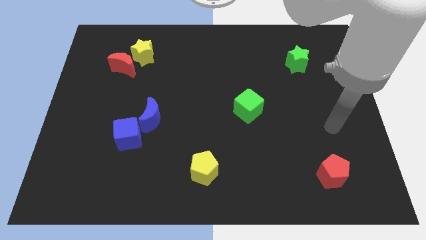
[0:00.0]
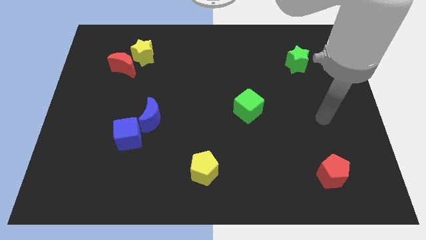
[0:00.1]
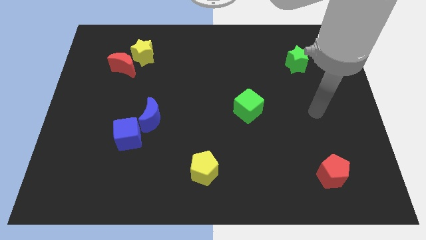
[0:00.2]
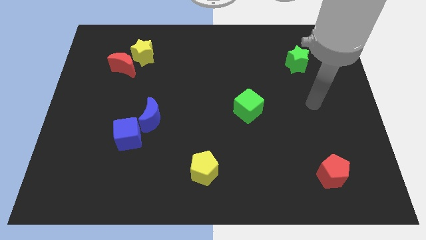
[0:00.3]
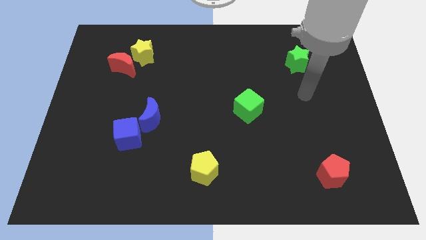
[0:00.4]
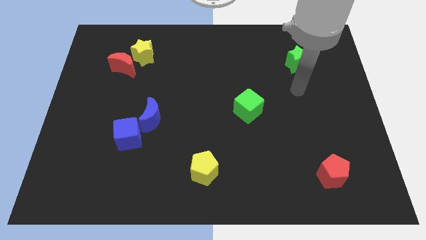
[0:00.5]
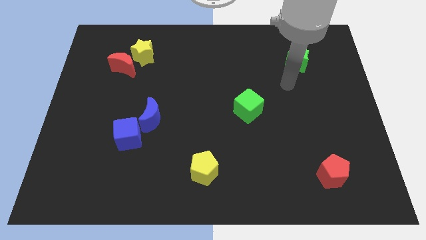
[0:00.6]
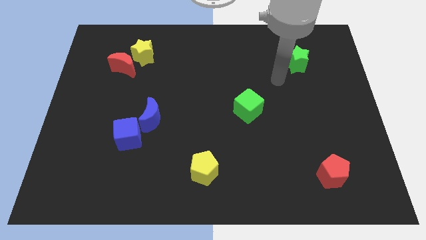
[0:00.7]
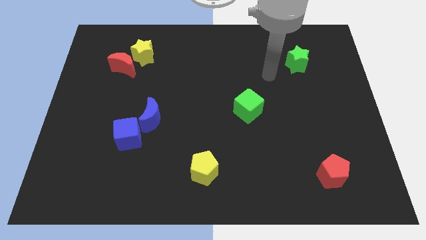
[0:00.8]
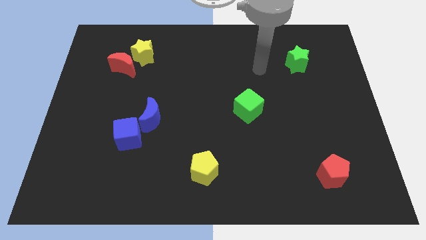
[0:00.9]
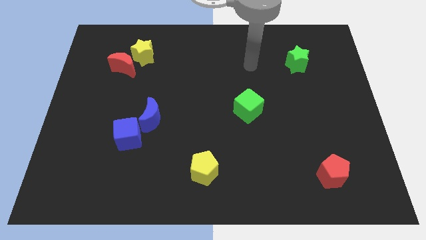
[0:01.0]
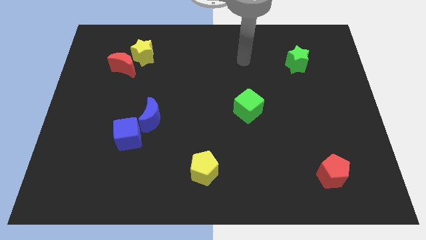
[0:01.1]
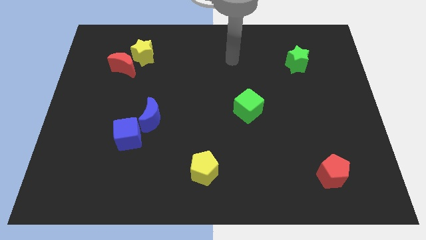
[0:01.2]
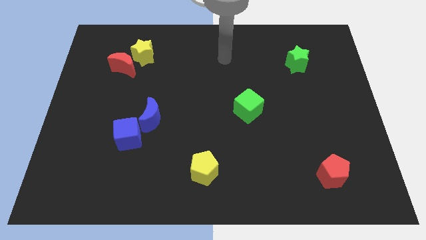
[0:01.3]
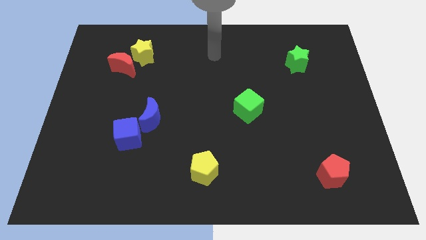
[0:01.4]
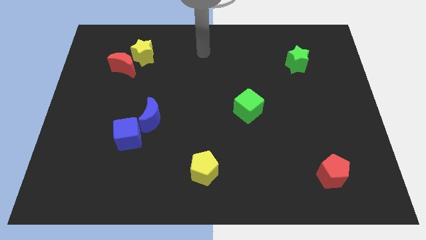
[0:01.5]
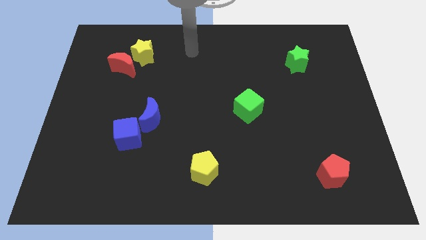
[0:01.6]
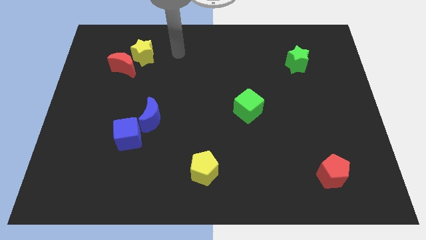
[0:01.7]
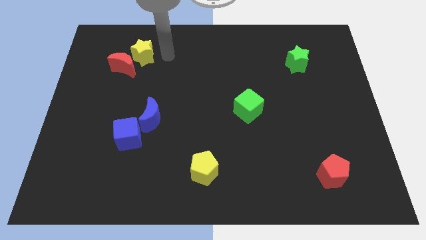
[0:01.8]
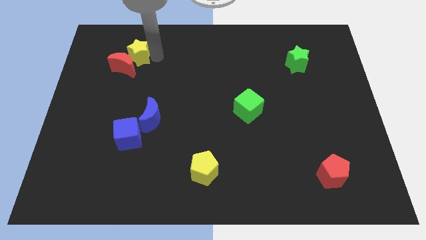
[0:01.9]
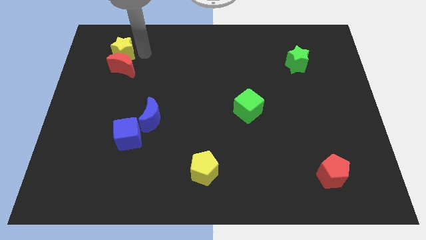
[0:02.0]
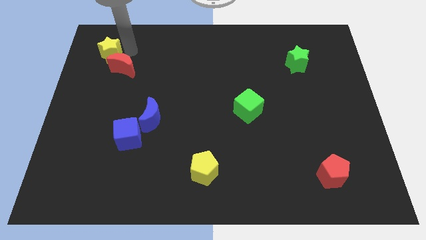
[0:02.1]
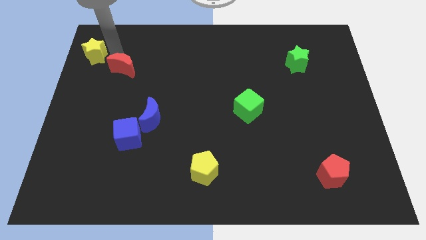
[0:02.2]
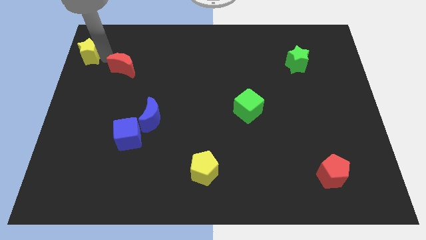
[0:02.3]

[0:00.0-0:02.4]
move the red moon away from the yellow star

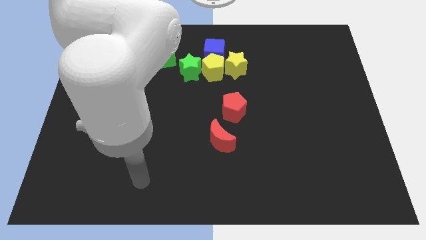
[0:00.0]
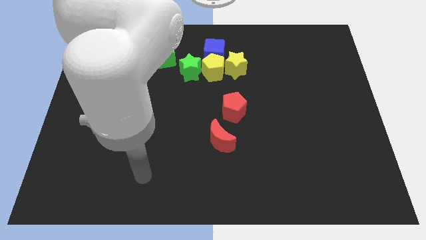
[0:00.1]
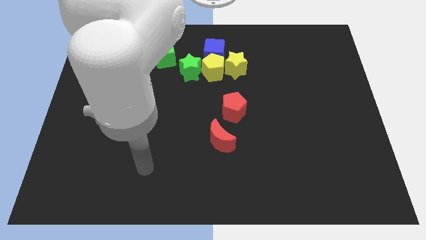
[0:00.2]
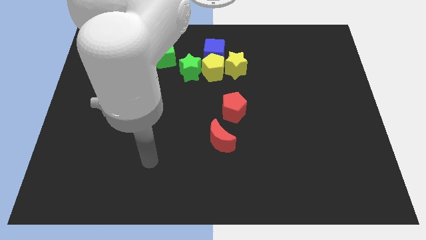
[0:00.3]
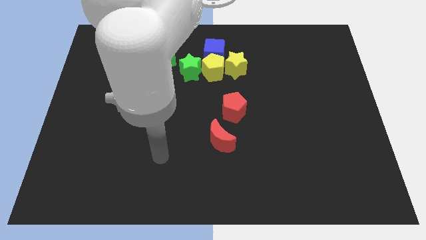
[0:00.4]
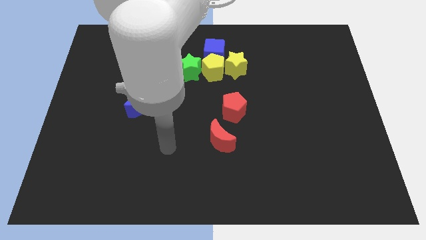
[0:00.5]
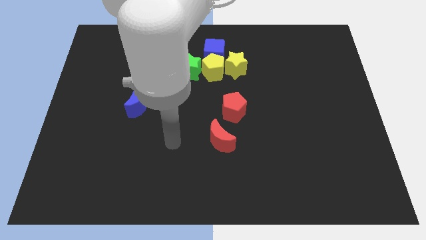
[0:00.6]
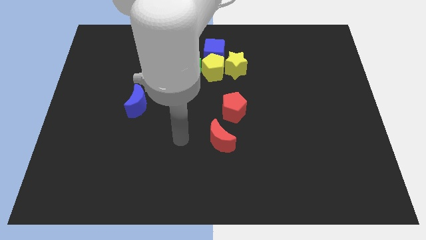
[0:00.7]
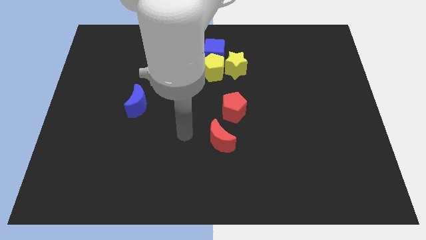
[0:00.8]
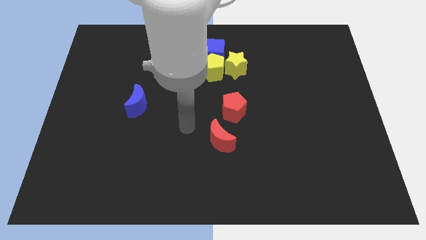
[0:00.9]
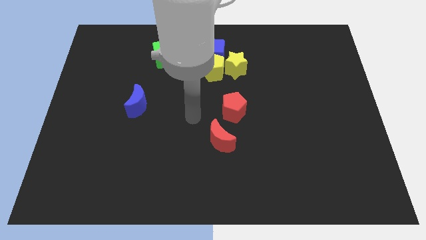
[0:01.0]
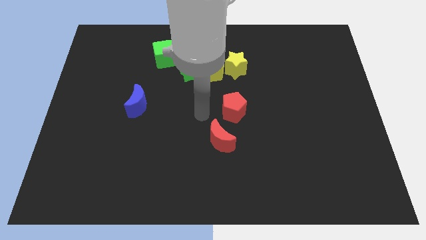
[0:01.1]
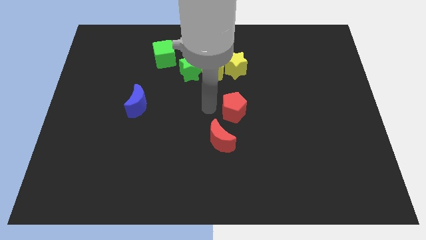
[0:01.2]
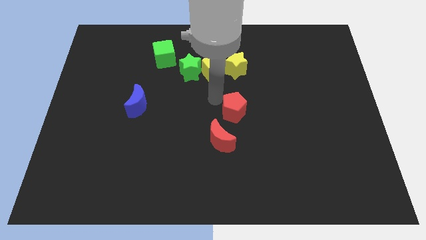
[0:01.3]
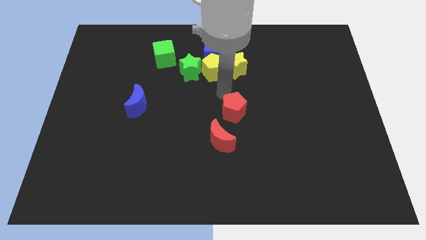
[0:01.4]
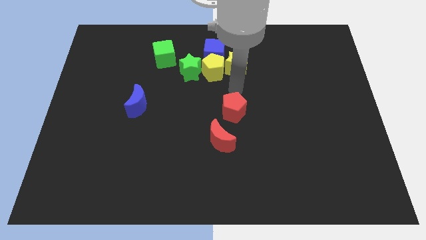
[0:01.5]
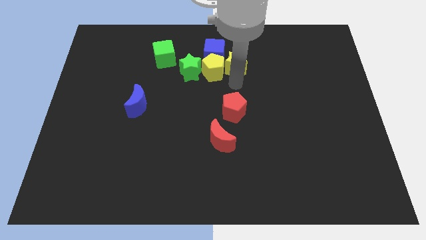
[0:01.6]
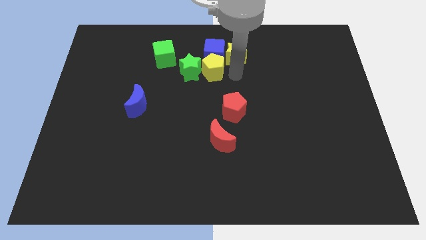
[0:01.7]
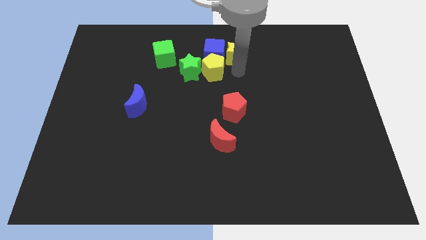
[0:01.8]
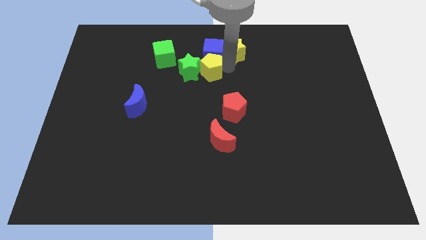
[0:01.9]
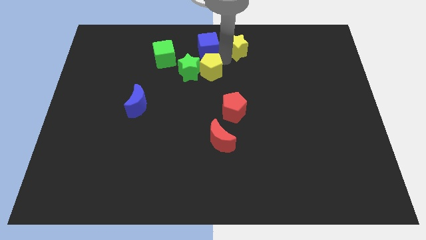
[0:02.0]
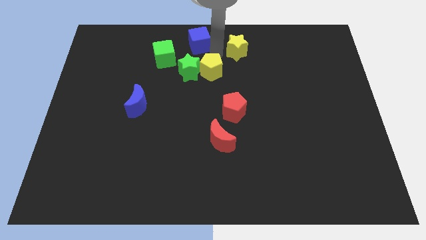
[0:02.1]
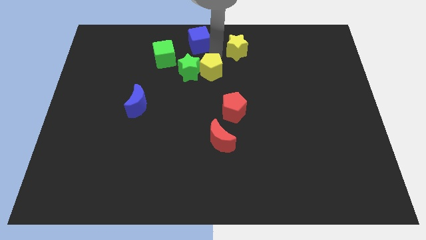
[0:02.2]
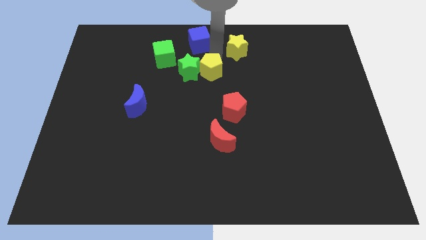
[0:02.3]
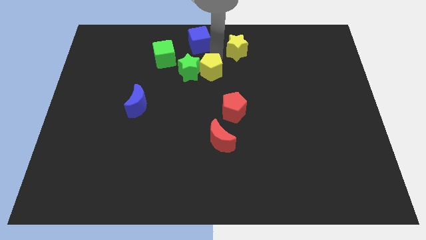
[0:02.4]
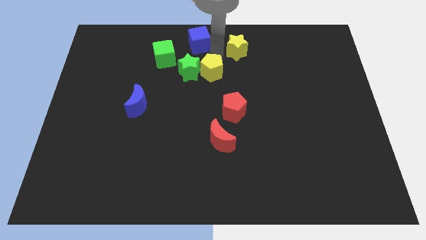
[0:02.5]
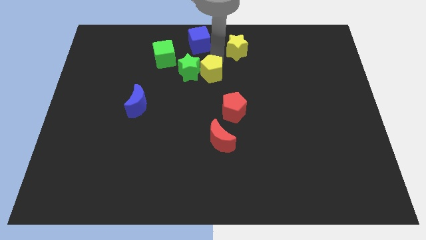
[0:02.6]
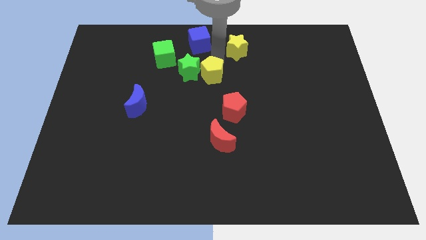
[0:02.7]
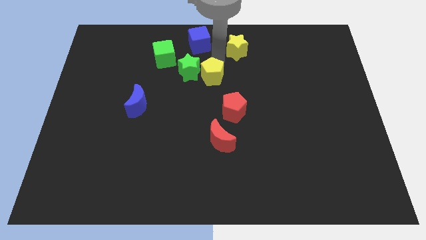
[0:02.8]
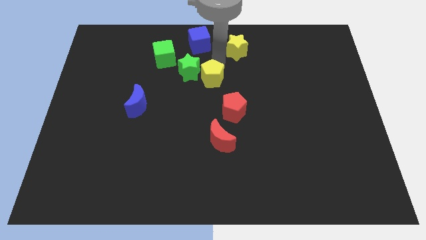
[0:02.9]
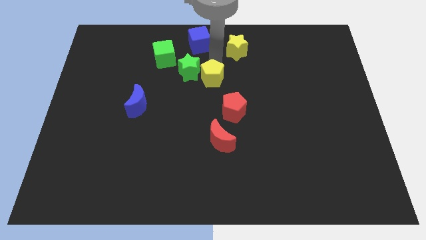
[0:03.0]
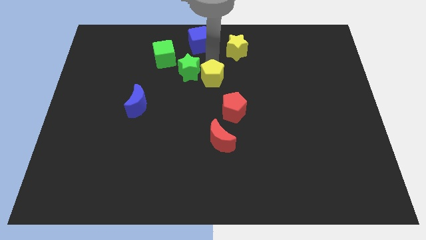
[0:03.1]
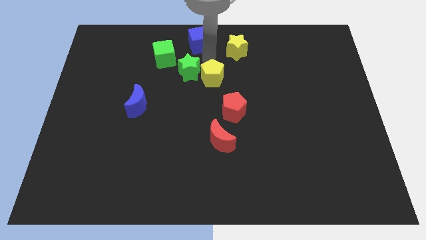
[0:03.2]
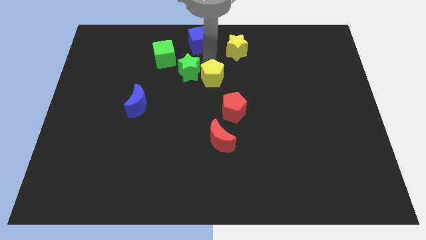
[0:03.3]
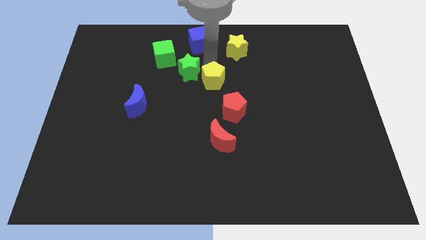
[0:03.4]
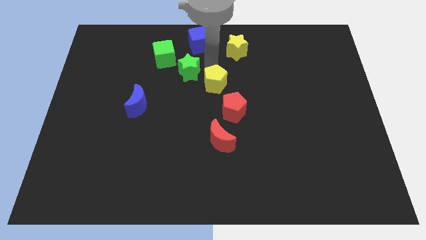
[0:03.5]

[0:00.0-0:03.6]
pull the yellow pentagon apart from the yellow star, blue cube, and green star

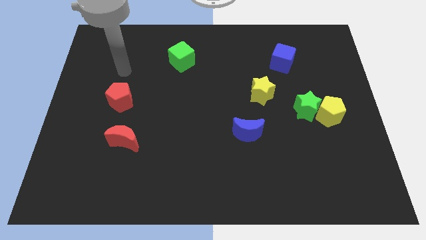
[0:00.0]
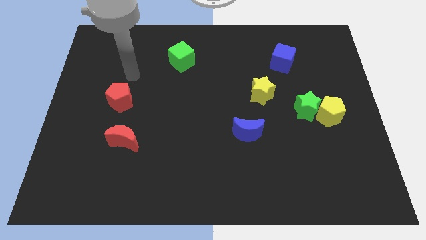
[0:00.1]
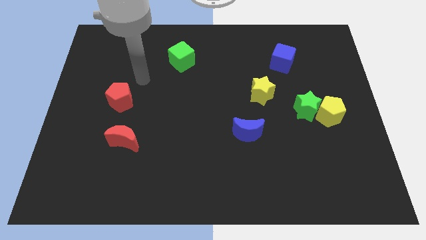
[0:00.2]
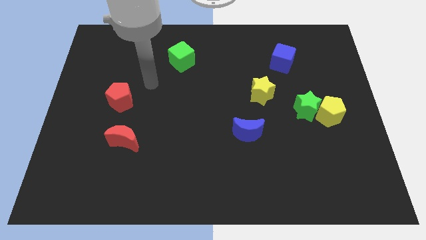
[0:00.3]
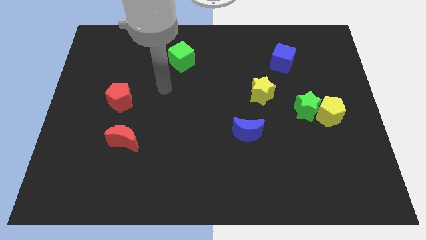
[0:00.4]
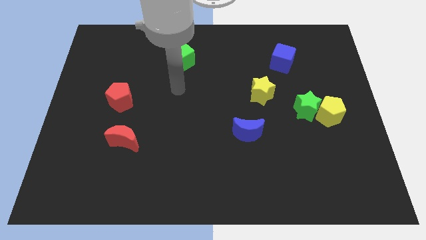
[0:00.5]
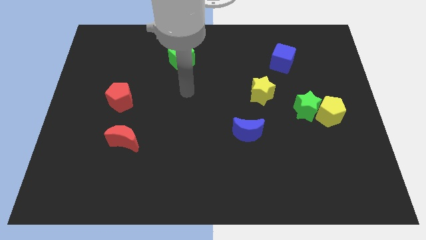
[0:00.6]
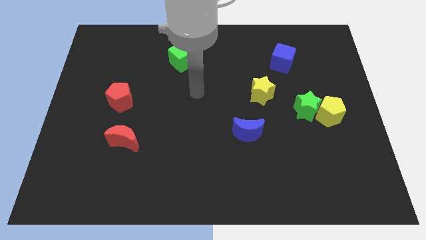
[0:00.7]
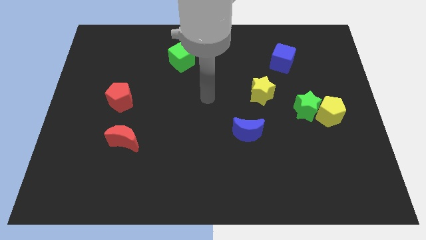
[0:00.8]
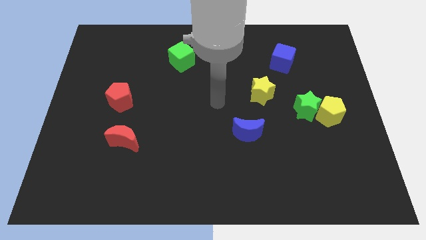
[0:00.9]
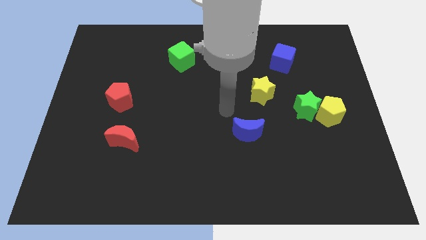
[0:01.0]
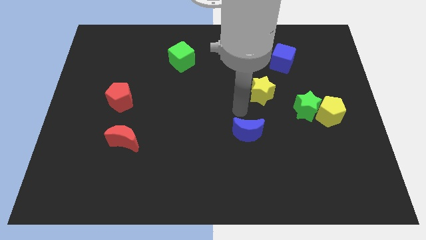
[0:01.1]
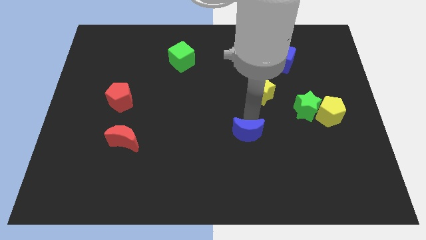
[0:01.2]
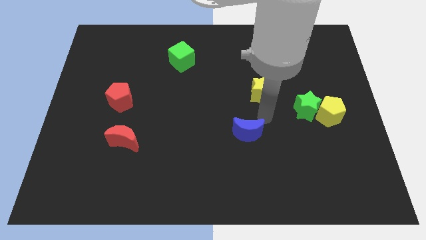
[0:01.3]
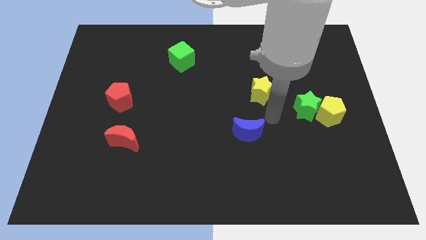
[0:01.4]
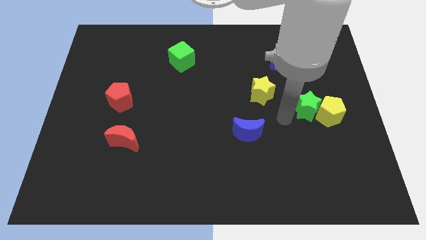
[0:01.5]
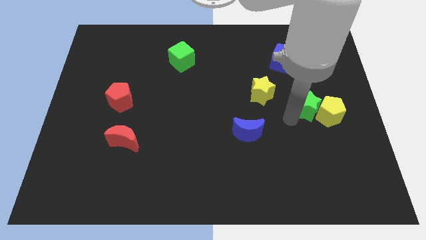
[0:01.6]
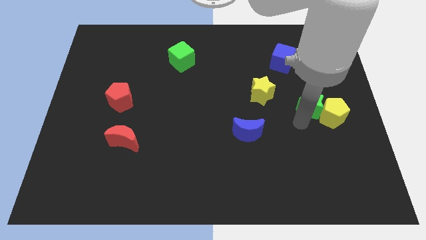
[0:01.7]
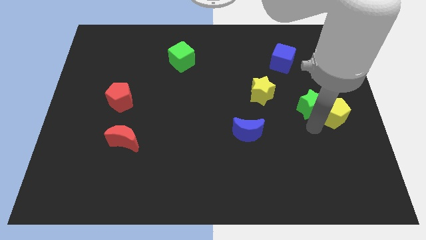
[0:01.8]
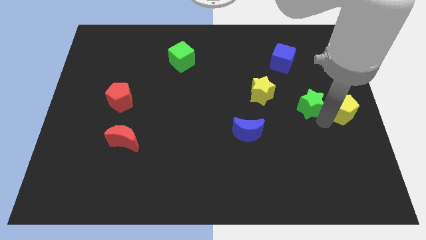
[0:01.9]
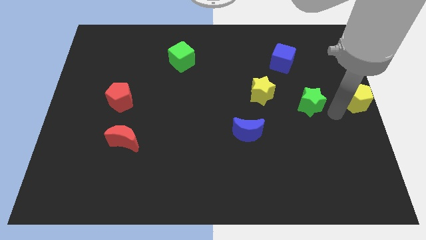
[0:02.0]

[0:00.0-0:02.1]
separate the green star from the yellow pentagon

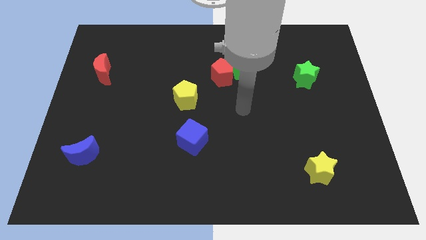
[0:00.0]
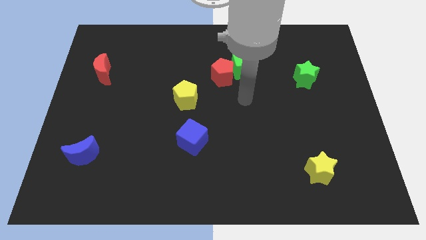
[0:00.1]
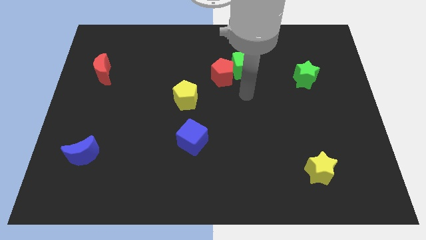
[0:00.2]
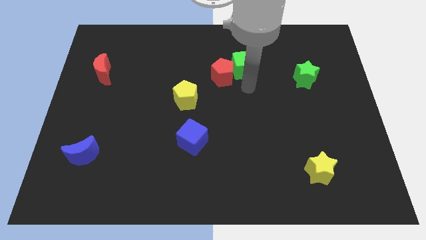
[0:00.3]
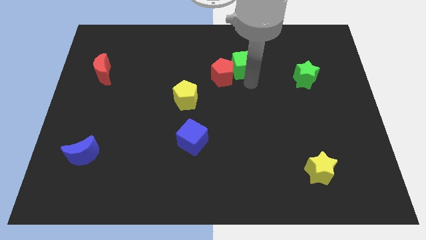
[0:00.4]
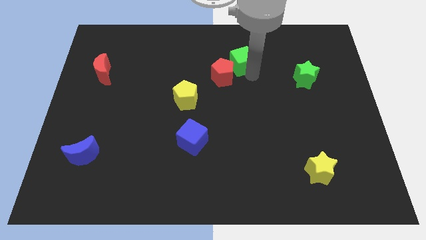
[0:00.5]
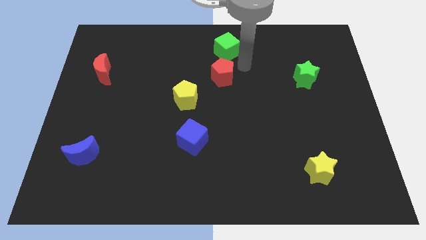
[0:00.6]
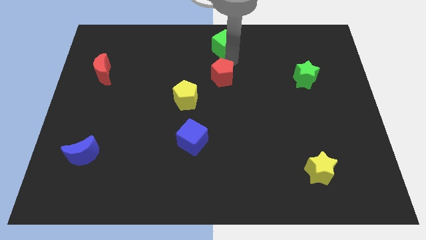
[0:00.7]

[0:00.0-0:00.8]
pull the red pentagon apart from the green cube

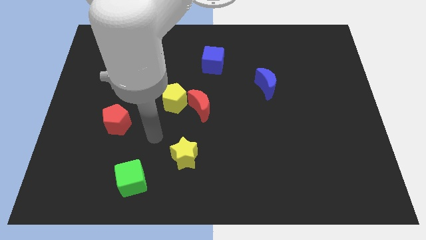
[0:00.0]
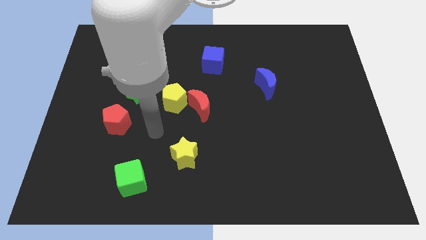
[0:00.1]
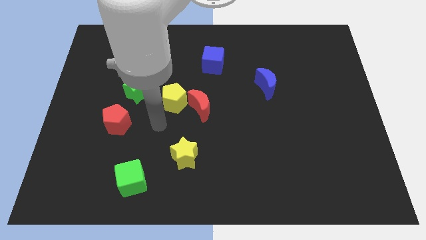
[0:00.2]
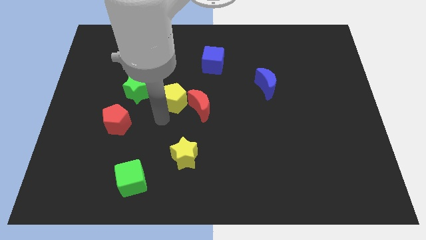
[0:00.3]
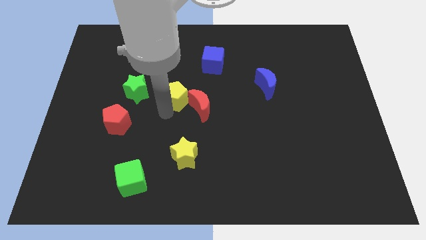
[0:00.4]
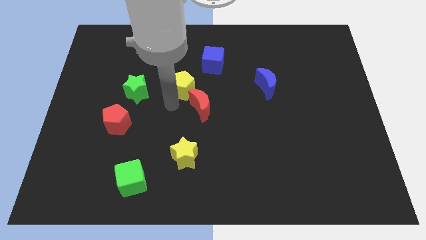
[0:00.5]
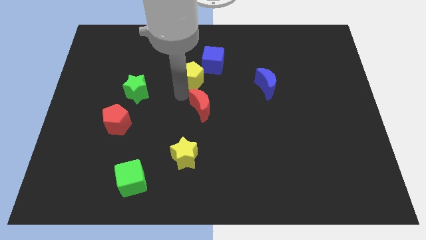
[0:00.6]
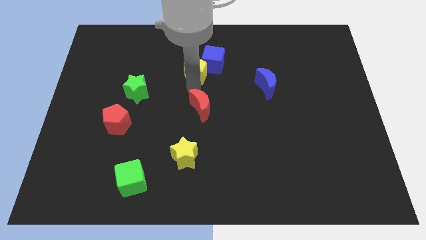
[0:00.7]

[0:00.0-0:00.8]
separate the red moon from the yellow pentagon
